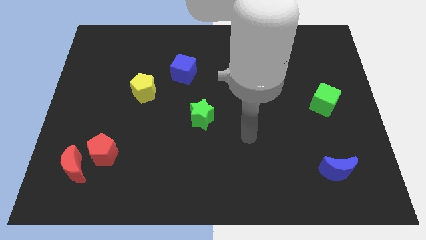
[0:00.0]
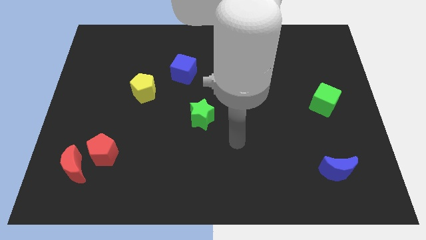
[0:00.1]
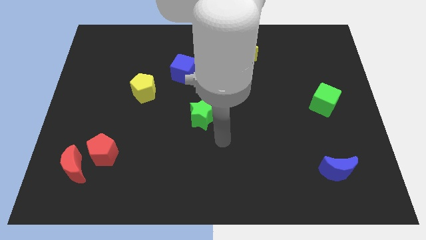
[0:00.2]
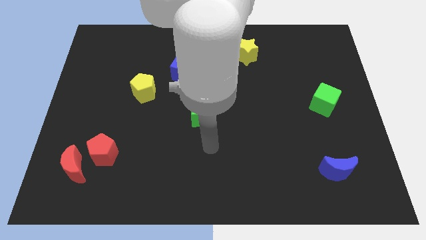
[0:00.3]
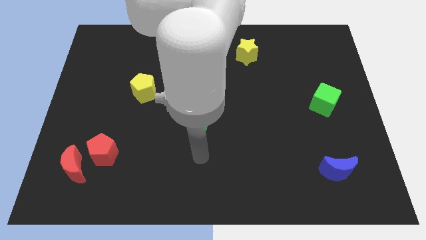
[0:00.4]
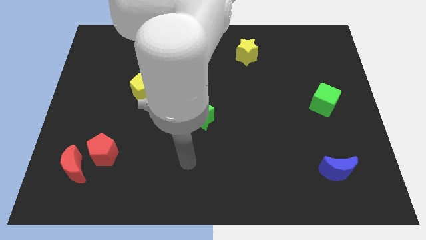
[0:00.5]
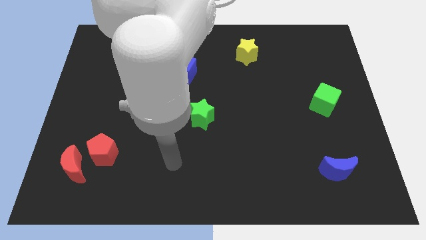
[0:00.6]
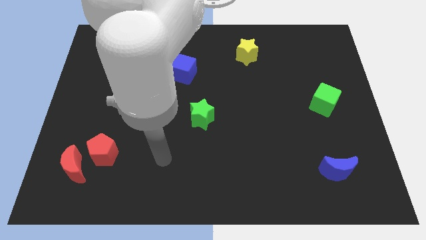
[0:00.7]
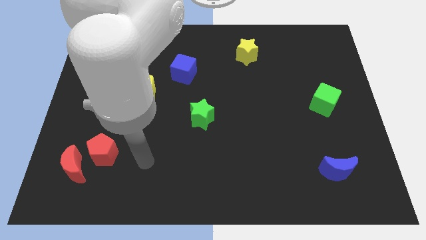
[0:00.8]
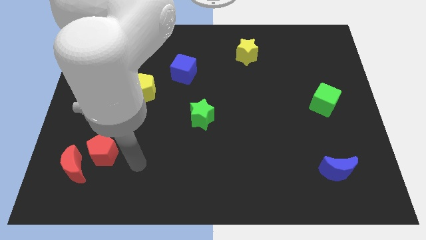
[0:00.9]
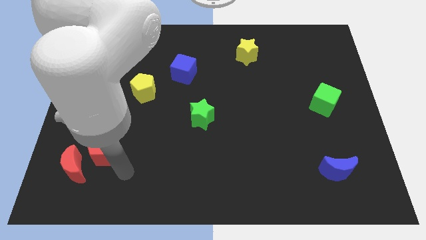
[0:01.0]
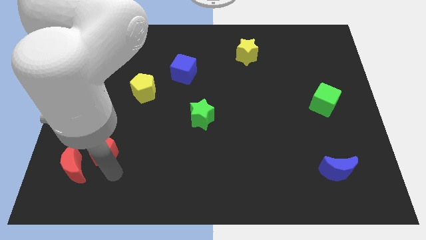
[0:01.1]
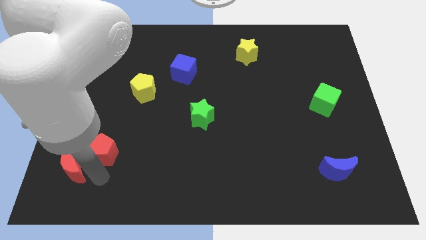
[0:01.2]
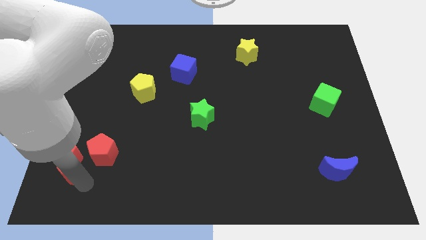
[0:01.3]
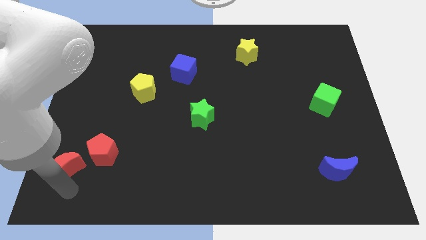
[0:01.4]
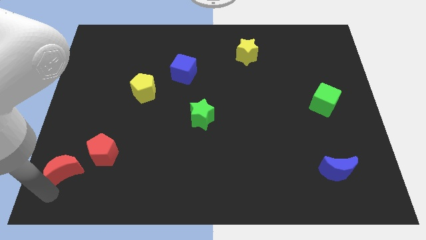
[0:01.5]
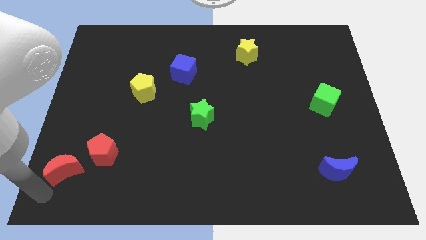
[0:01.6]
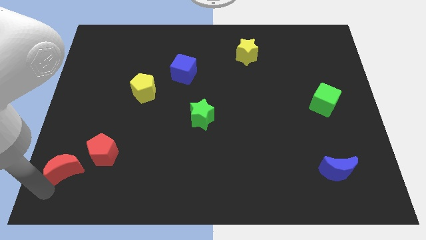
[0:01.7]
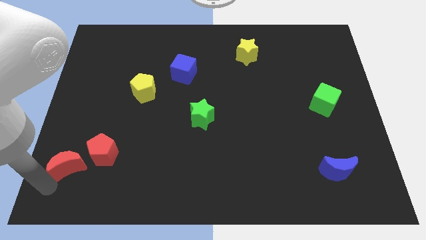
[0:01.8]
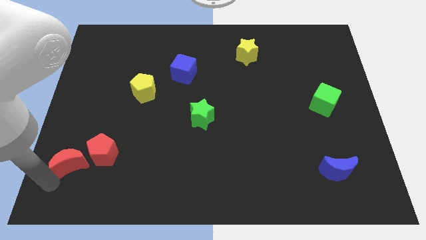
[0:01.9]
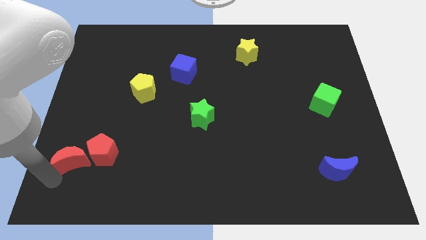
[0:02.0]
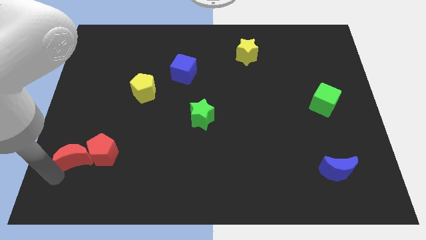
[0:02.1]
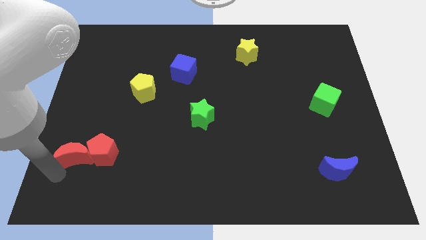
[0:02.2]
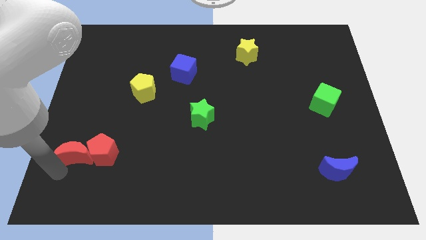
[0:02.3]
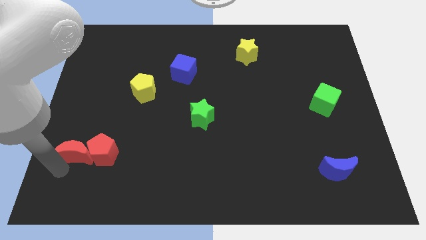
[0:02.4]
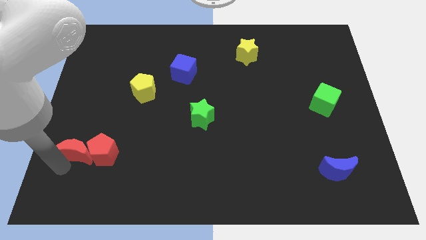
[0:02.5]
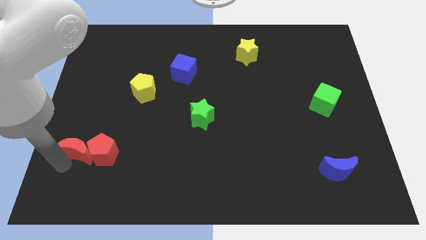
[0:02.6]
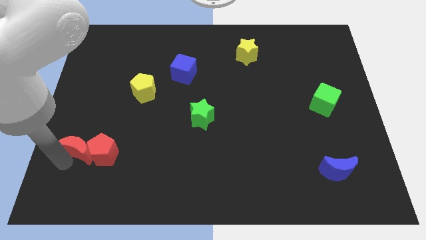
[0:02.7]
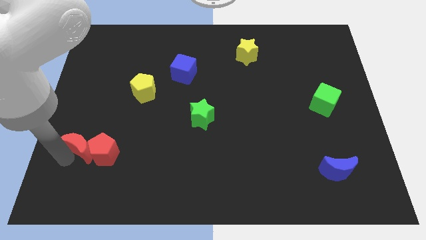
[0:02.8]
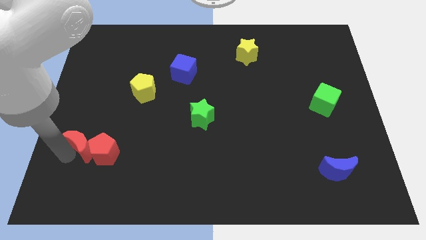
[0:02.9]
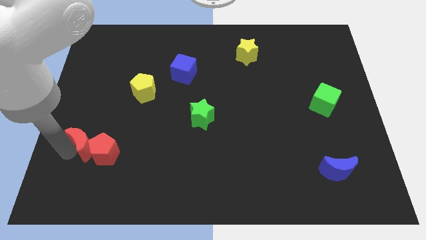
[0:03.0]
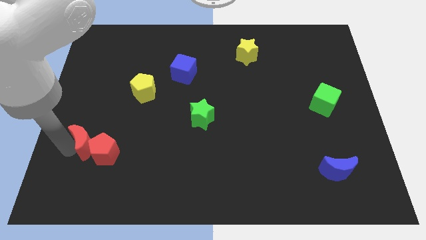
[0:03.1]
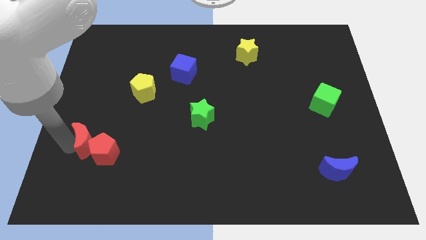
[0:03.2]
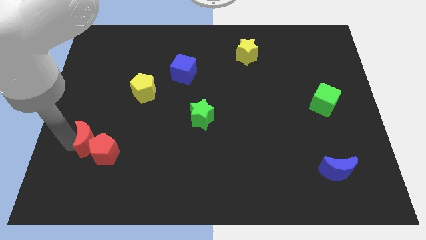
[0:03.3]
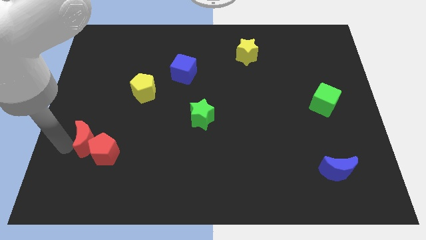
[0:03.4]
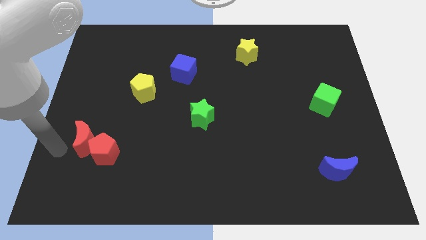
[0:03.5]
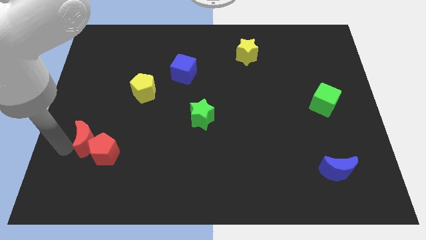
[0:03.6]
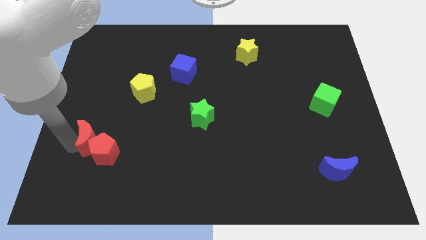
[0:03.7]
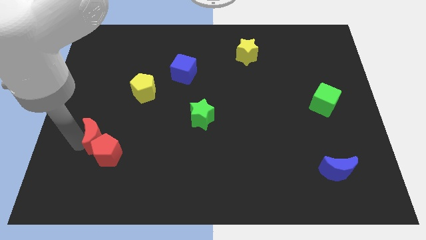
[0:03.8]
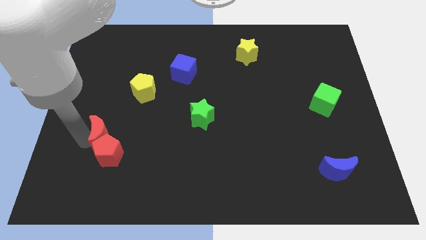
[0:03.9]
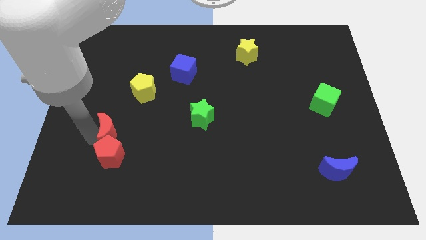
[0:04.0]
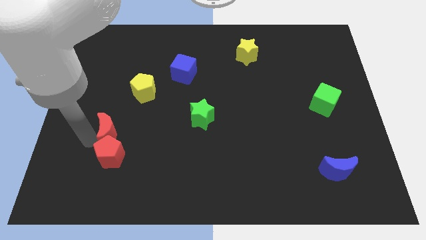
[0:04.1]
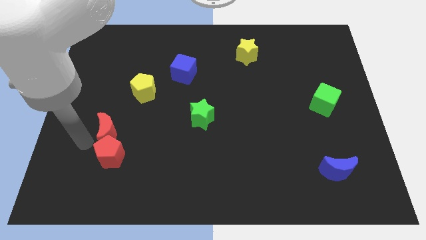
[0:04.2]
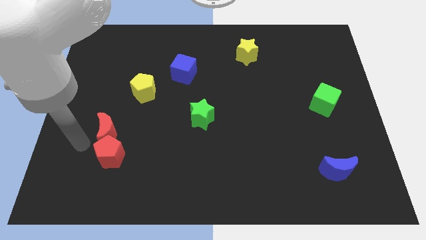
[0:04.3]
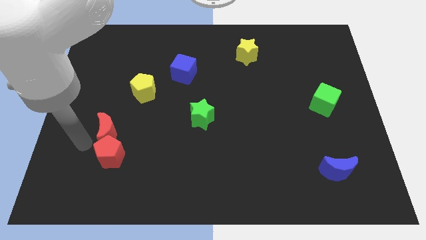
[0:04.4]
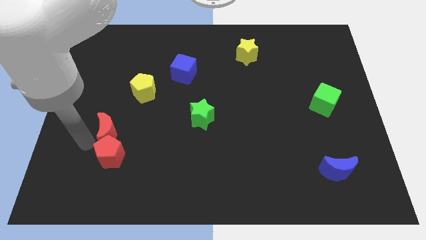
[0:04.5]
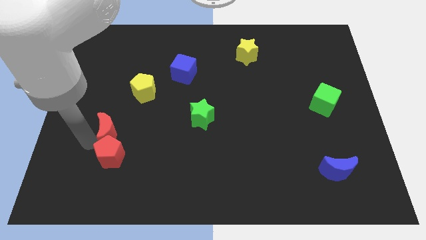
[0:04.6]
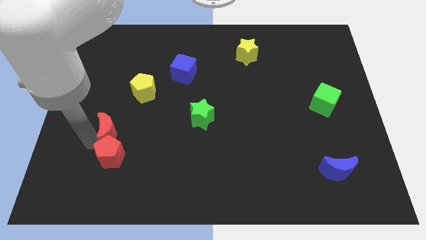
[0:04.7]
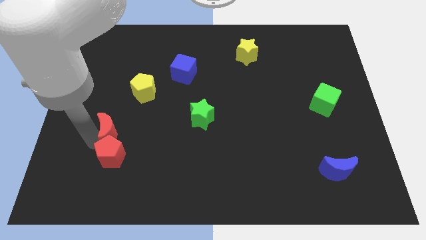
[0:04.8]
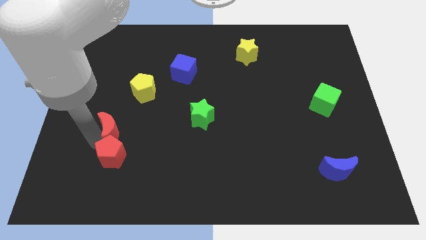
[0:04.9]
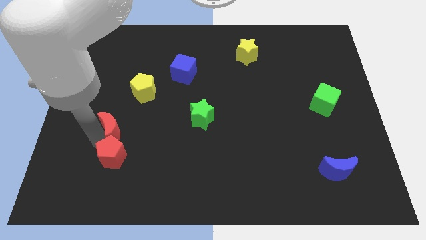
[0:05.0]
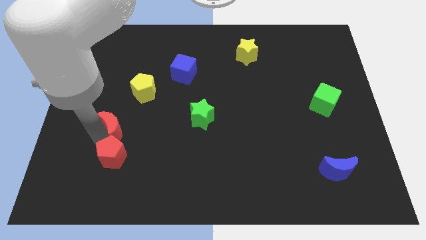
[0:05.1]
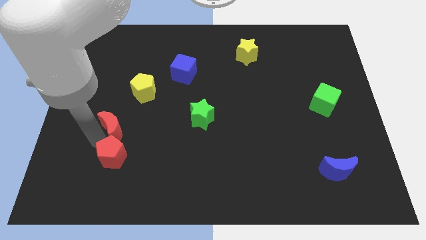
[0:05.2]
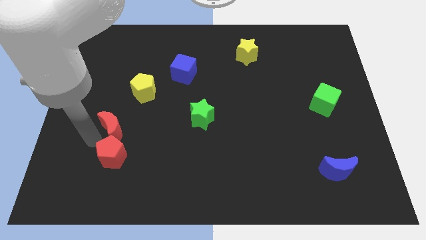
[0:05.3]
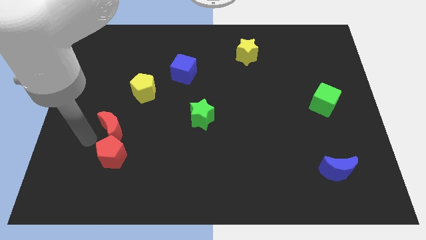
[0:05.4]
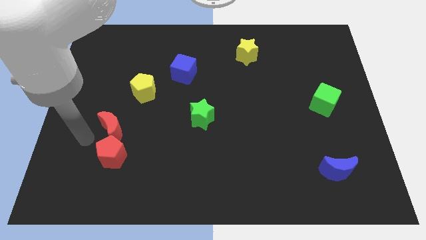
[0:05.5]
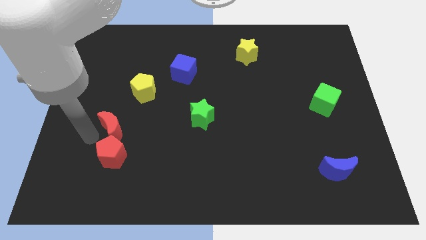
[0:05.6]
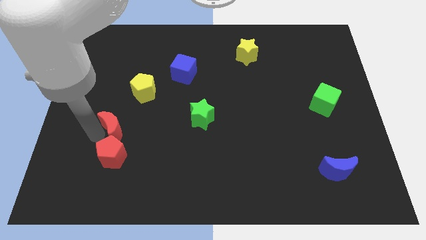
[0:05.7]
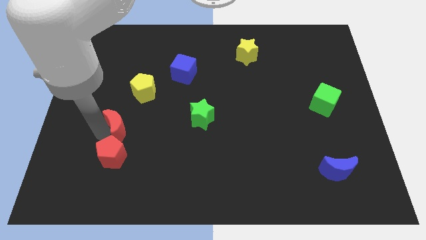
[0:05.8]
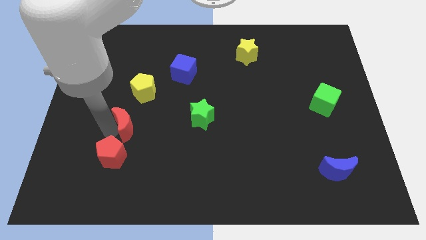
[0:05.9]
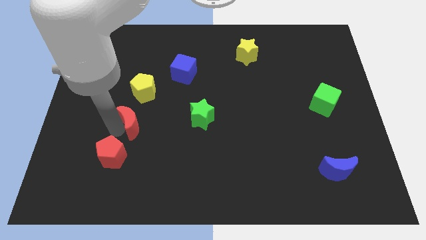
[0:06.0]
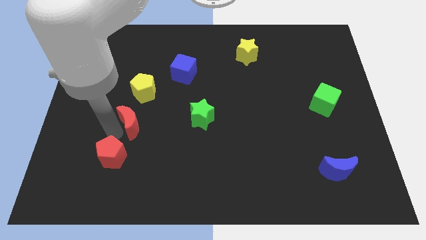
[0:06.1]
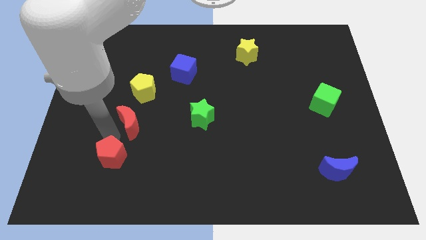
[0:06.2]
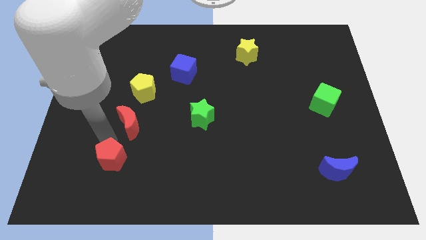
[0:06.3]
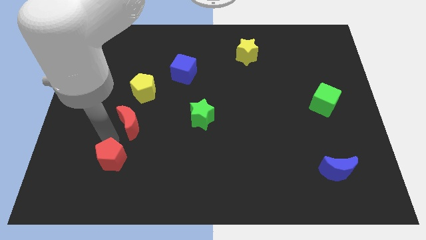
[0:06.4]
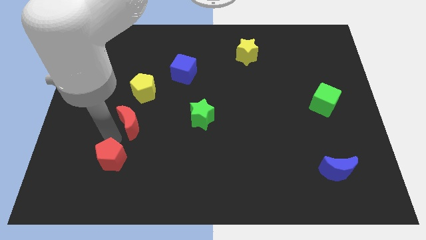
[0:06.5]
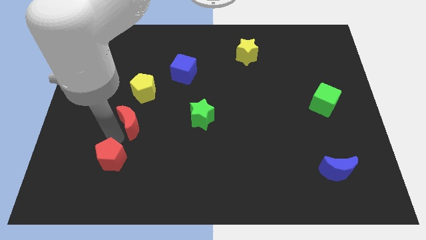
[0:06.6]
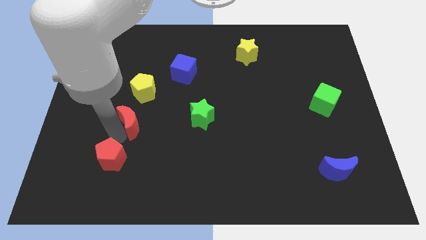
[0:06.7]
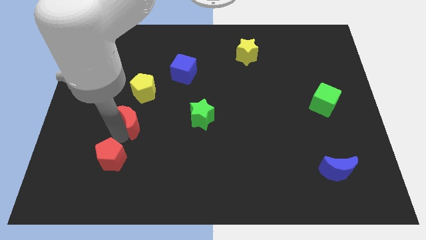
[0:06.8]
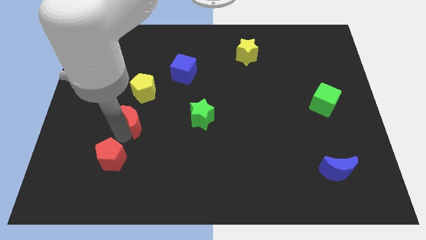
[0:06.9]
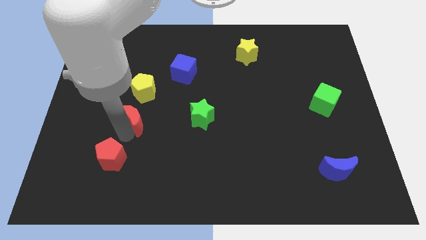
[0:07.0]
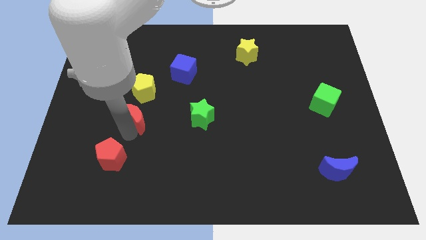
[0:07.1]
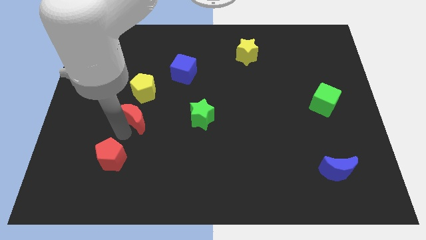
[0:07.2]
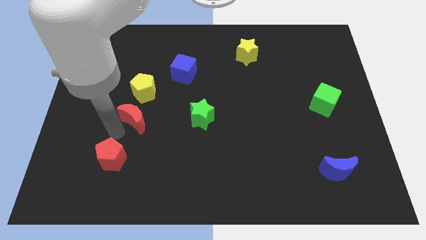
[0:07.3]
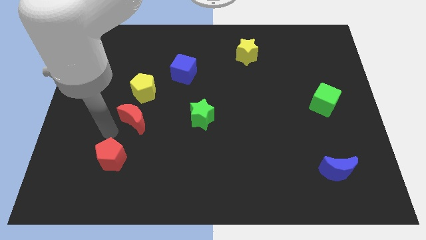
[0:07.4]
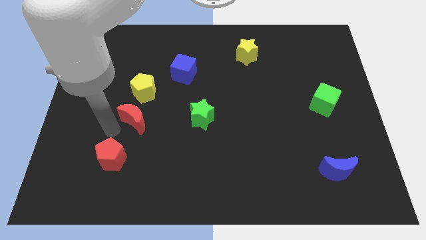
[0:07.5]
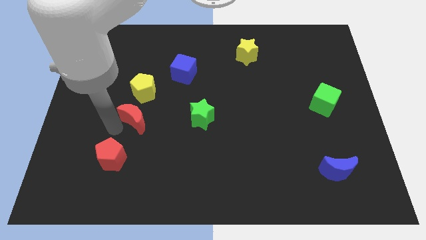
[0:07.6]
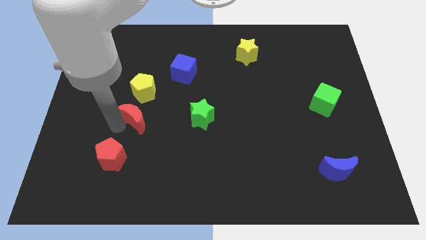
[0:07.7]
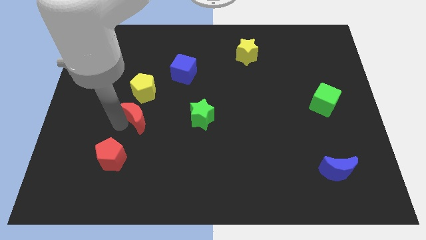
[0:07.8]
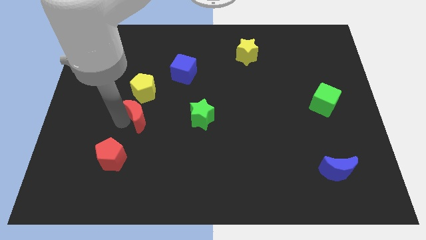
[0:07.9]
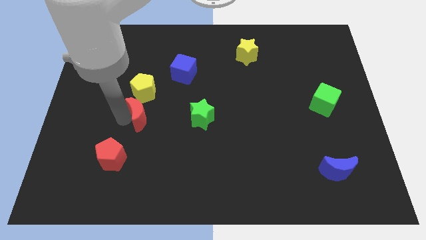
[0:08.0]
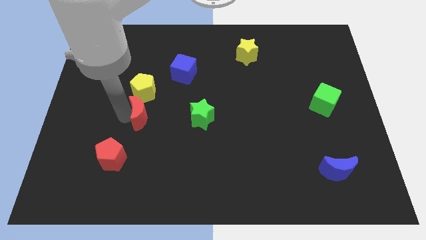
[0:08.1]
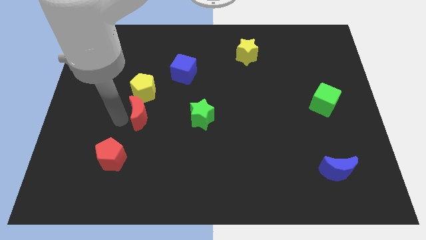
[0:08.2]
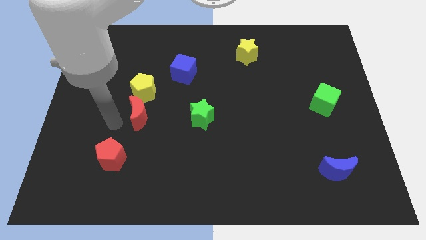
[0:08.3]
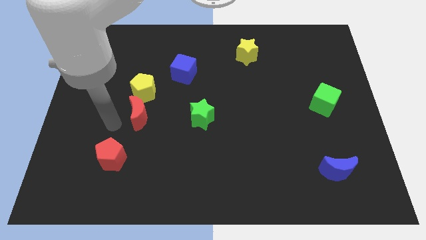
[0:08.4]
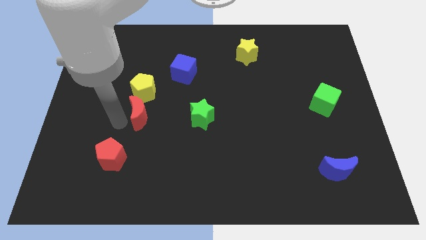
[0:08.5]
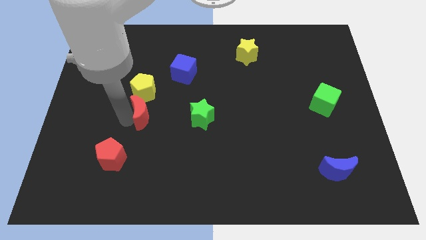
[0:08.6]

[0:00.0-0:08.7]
slide the red moon to the bottom right side of the yellow pentagon
